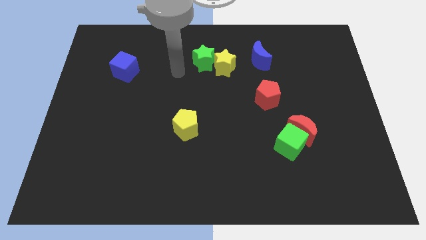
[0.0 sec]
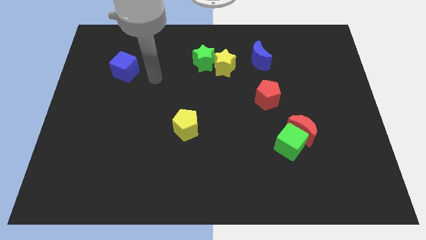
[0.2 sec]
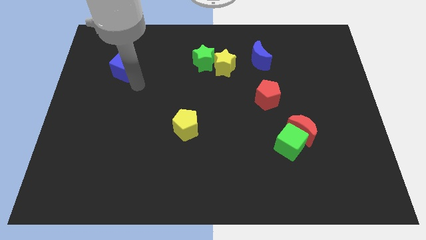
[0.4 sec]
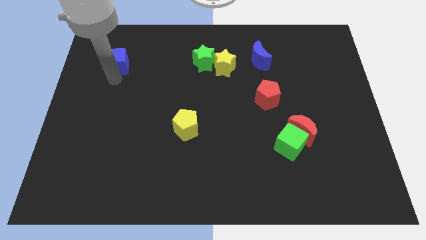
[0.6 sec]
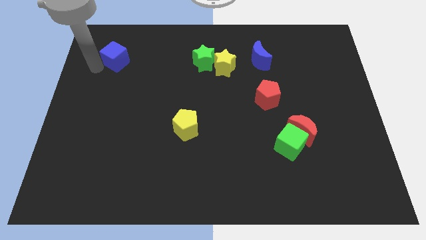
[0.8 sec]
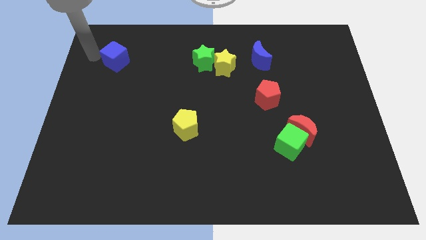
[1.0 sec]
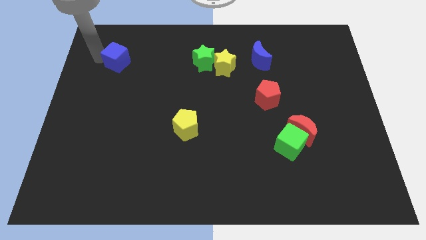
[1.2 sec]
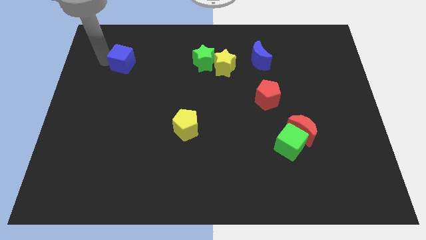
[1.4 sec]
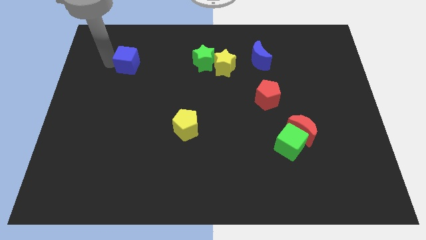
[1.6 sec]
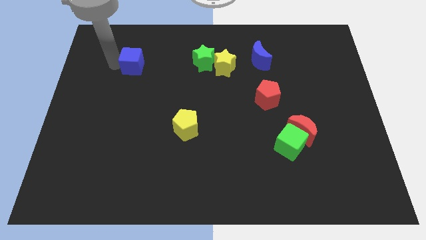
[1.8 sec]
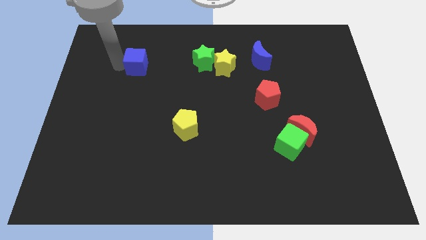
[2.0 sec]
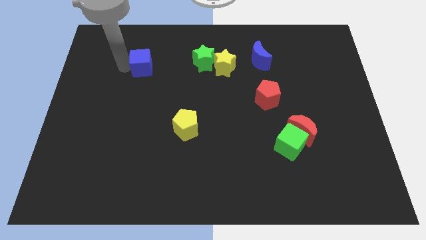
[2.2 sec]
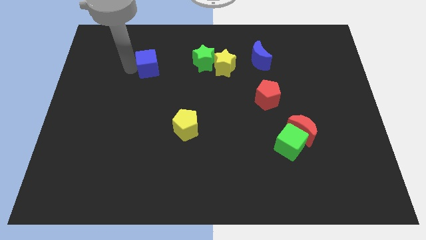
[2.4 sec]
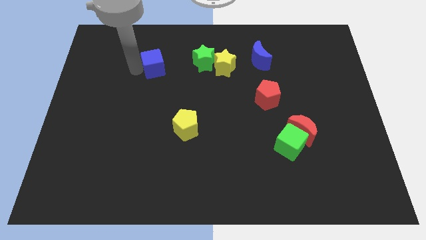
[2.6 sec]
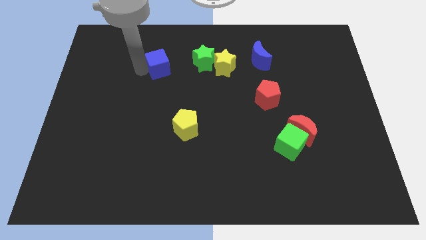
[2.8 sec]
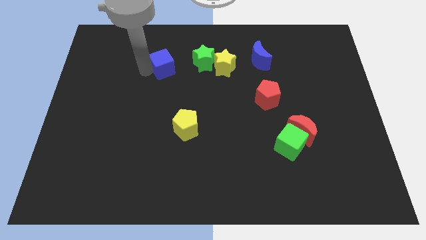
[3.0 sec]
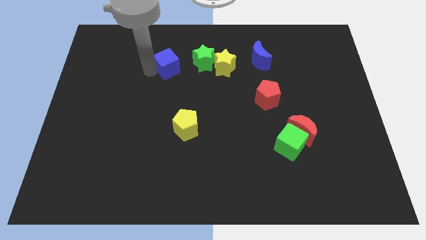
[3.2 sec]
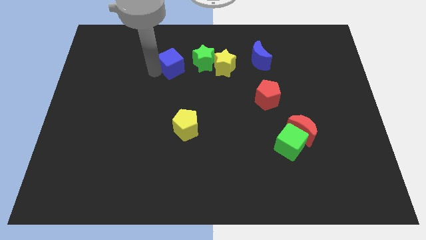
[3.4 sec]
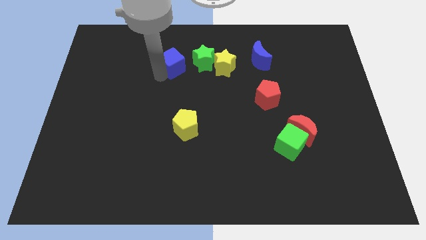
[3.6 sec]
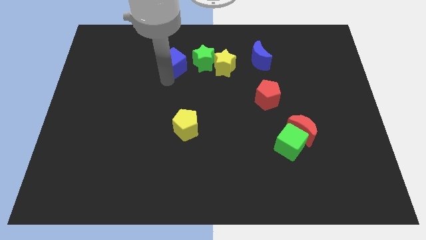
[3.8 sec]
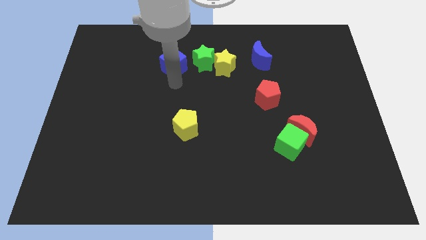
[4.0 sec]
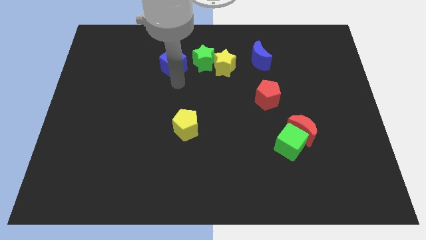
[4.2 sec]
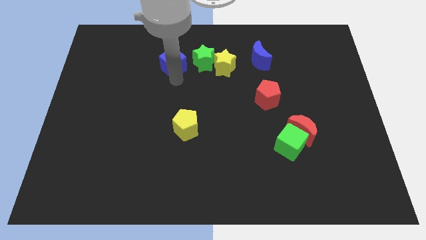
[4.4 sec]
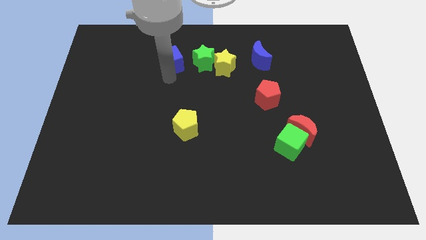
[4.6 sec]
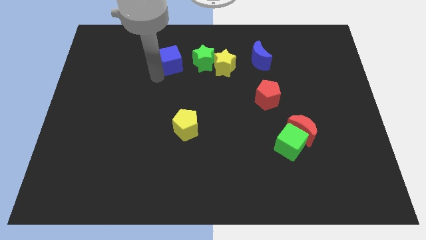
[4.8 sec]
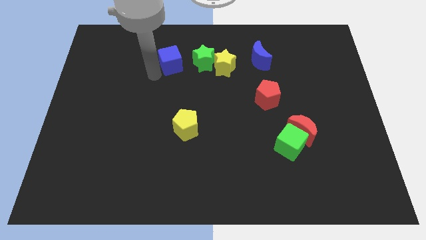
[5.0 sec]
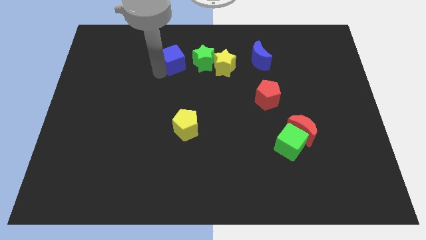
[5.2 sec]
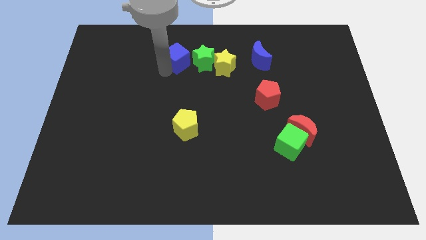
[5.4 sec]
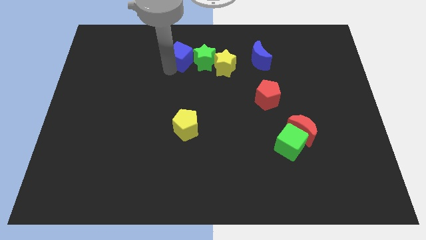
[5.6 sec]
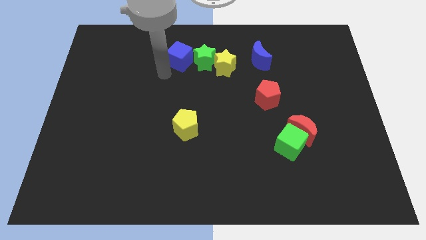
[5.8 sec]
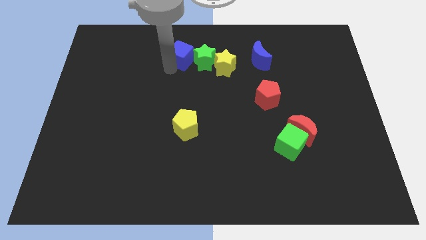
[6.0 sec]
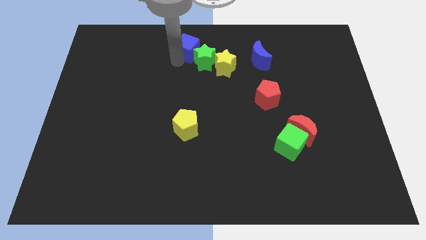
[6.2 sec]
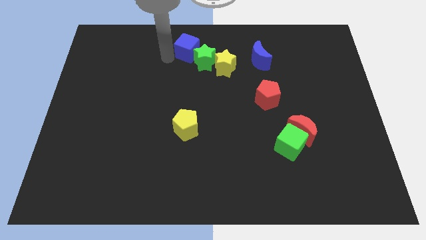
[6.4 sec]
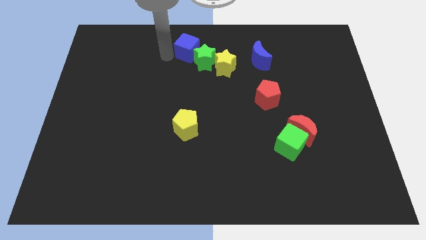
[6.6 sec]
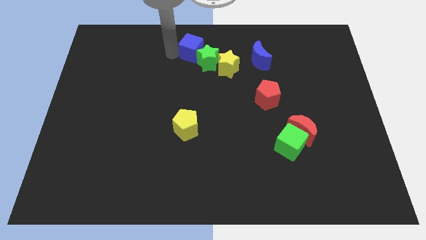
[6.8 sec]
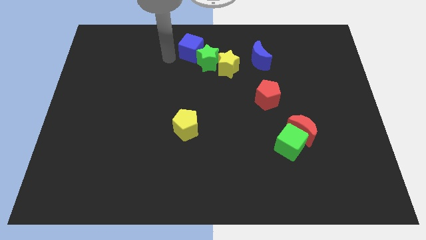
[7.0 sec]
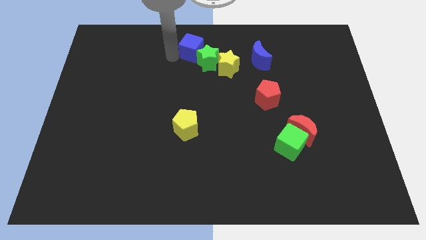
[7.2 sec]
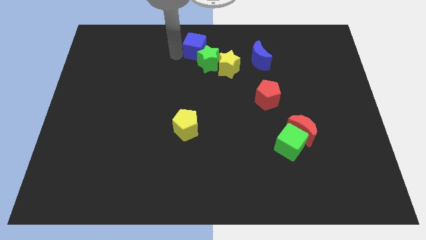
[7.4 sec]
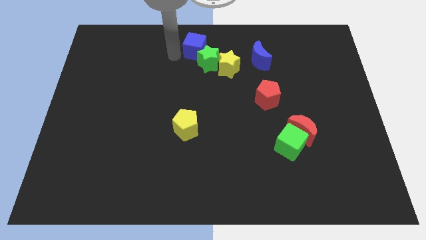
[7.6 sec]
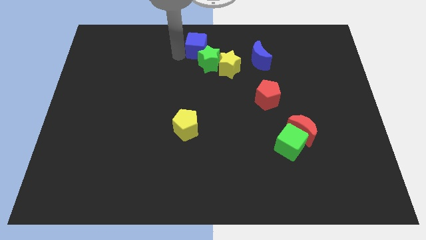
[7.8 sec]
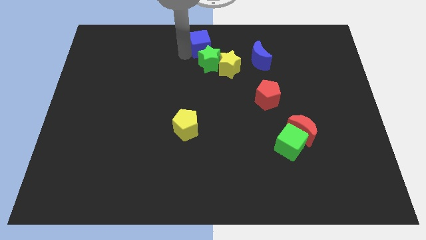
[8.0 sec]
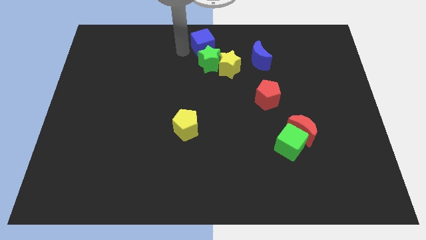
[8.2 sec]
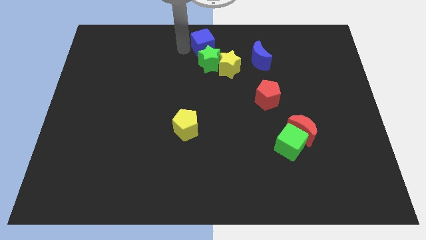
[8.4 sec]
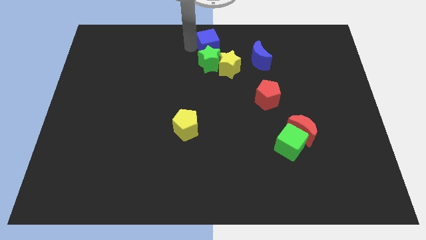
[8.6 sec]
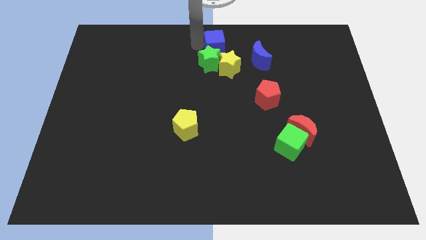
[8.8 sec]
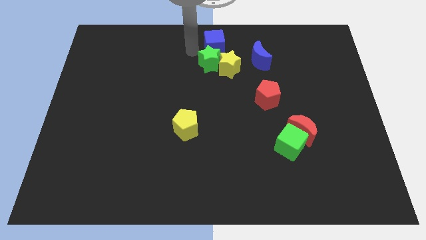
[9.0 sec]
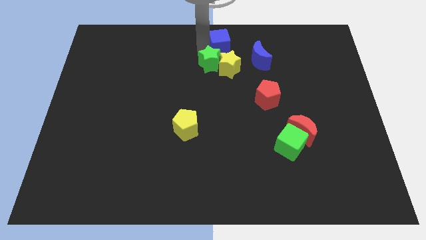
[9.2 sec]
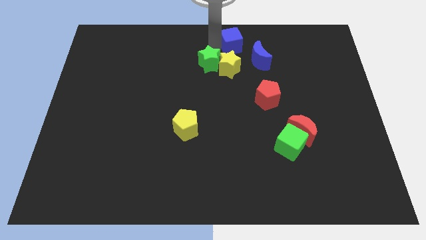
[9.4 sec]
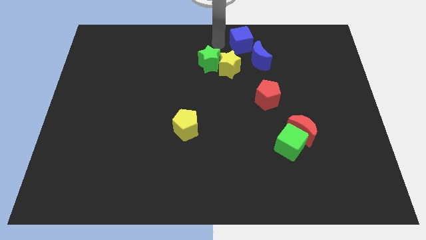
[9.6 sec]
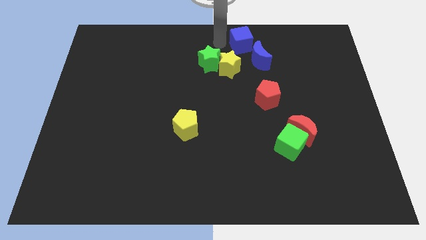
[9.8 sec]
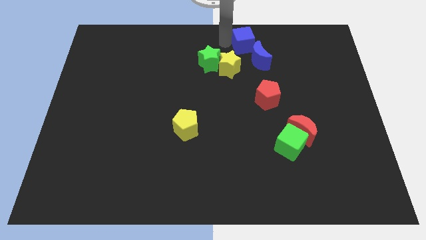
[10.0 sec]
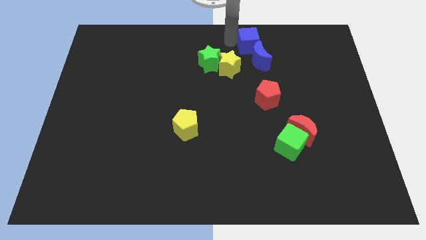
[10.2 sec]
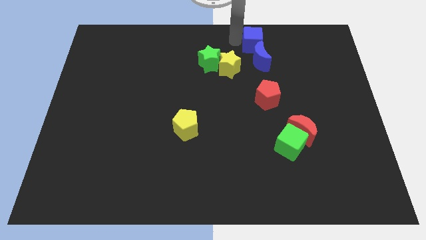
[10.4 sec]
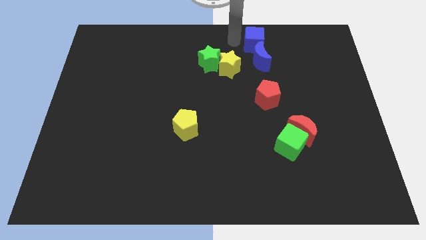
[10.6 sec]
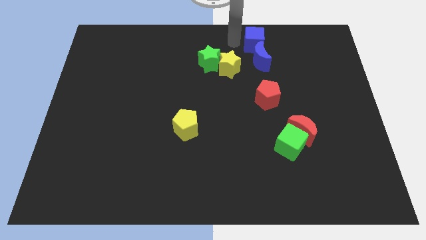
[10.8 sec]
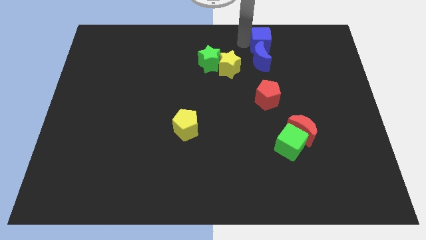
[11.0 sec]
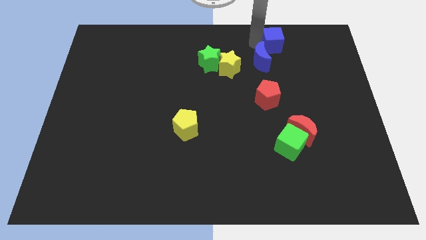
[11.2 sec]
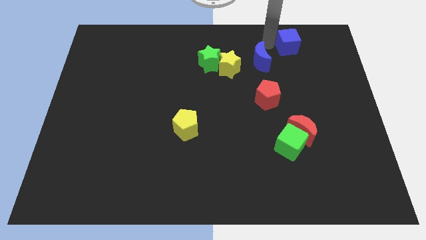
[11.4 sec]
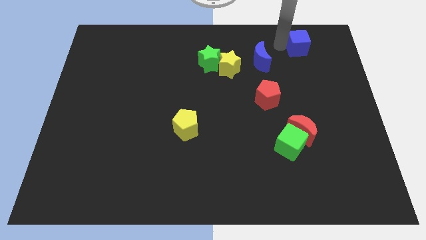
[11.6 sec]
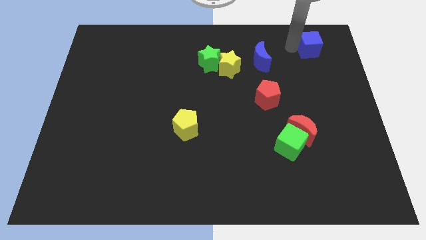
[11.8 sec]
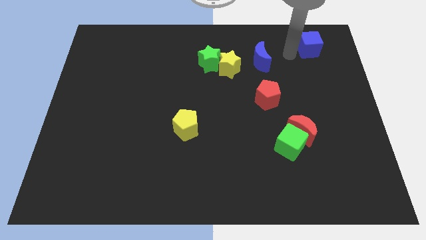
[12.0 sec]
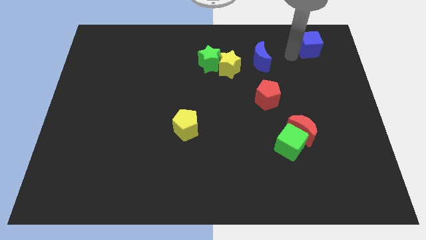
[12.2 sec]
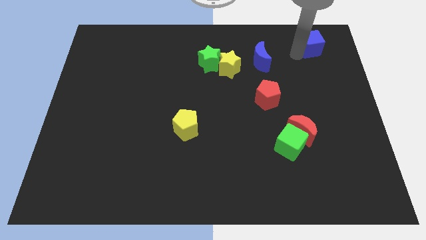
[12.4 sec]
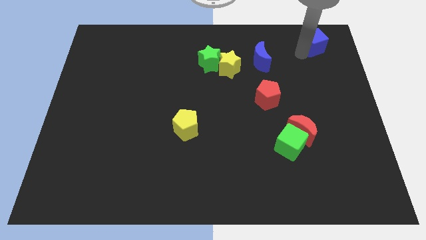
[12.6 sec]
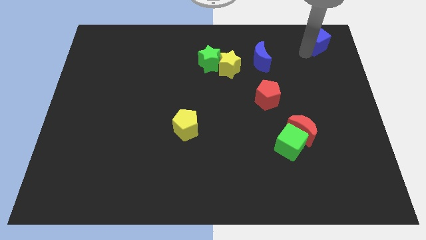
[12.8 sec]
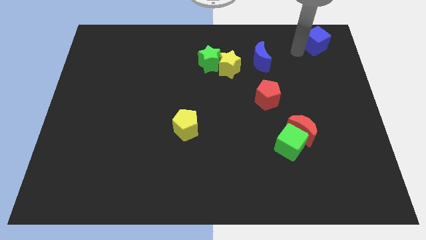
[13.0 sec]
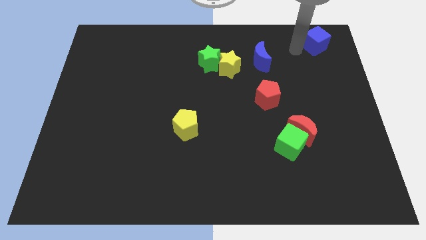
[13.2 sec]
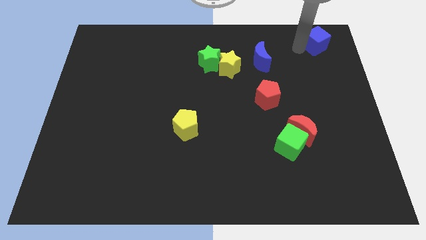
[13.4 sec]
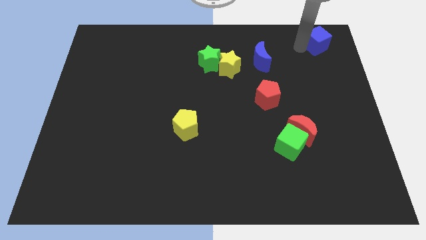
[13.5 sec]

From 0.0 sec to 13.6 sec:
slide the blue cube to the top right of the board

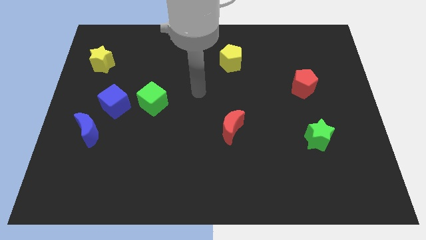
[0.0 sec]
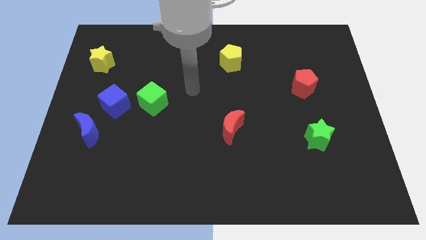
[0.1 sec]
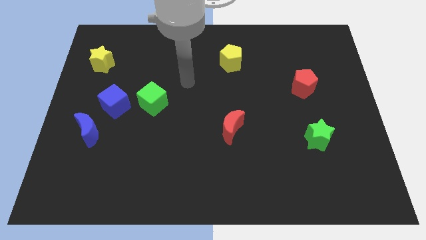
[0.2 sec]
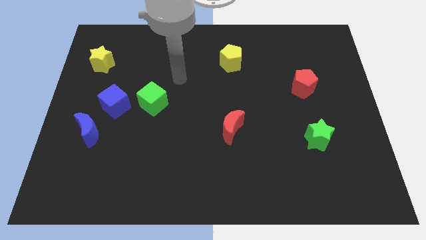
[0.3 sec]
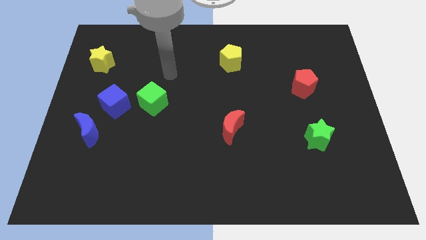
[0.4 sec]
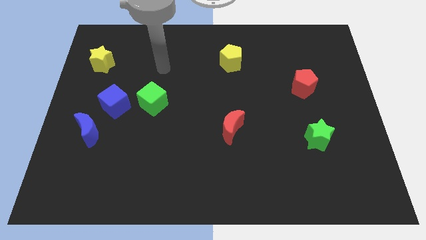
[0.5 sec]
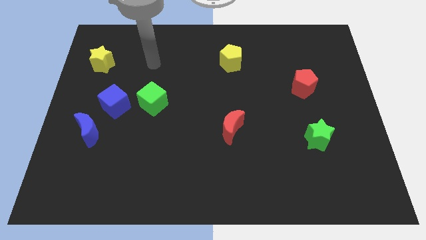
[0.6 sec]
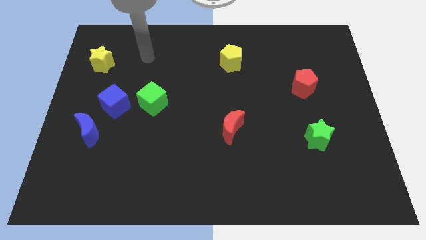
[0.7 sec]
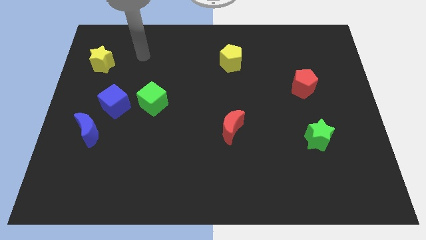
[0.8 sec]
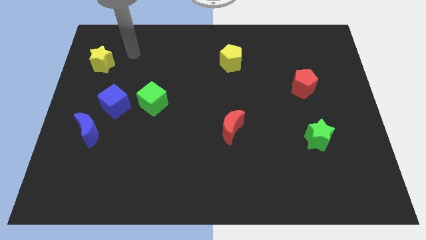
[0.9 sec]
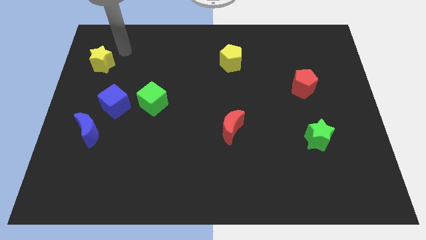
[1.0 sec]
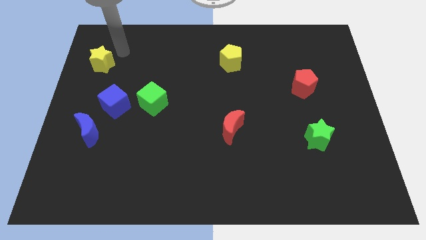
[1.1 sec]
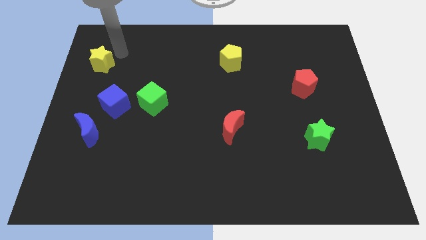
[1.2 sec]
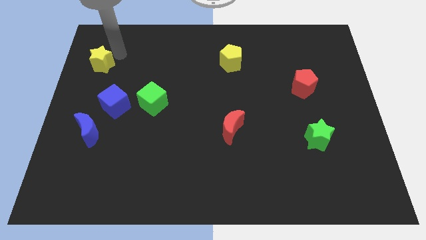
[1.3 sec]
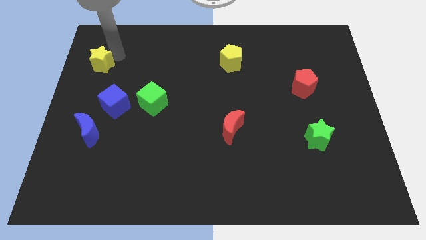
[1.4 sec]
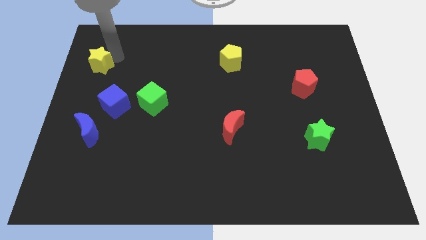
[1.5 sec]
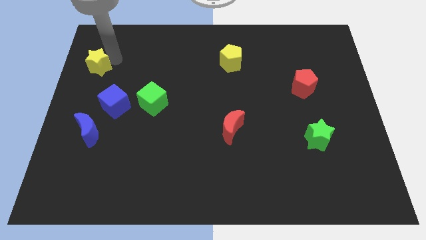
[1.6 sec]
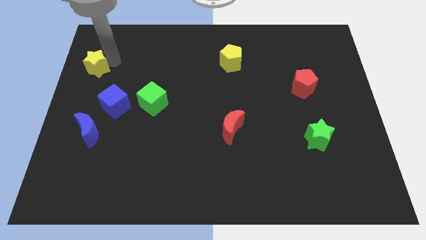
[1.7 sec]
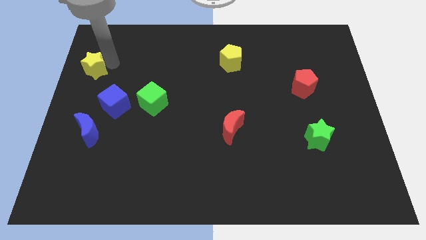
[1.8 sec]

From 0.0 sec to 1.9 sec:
put the yellow star to the left side
